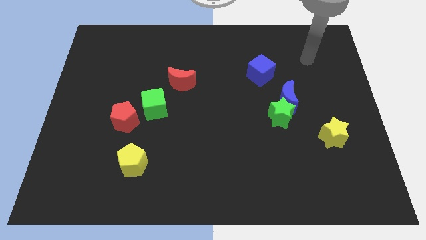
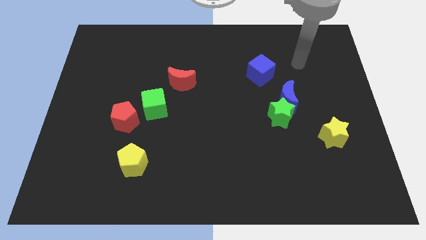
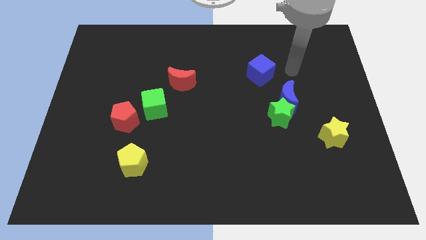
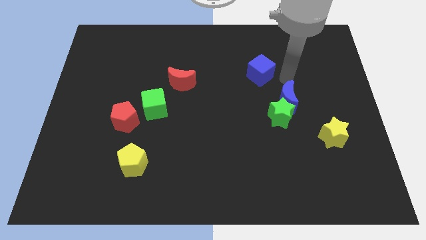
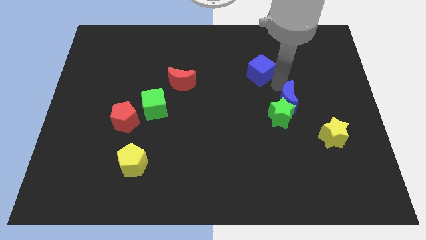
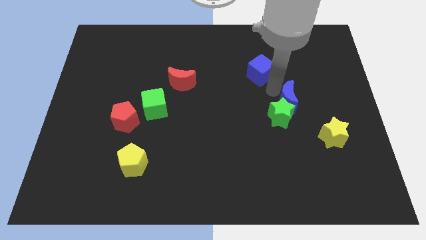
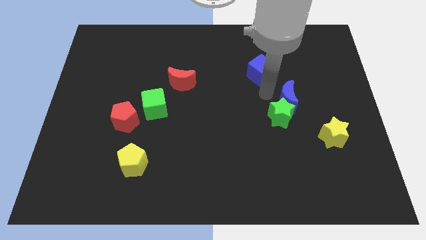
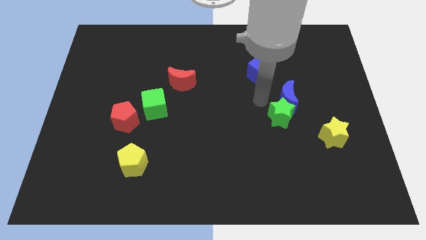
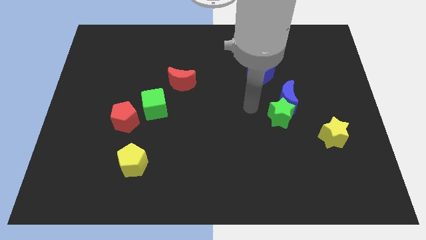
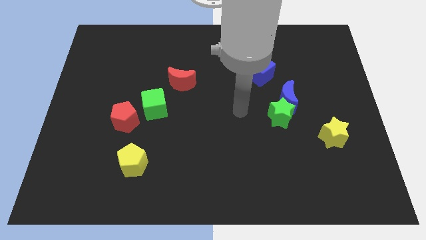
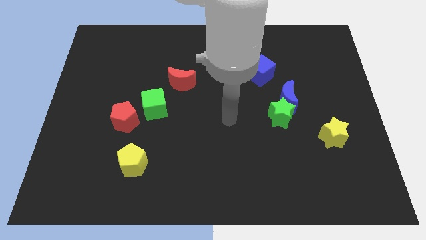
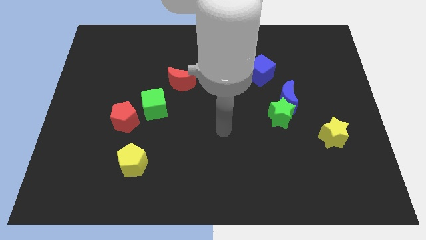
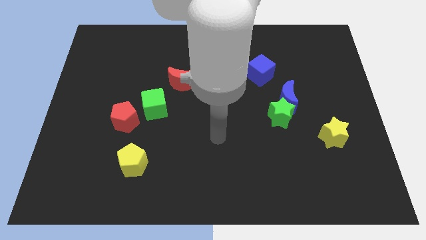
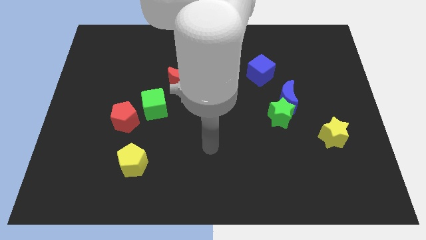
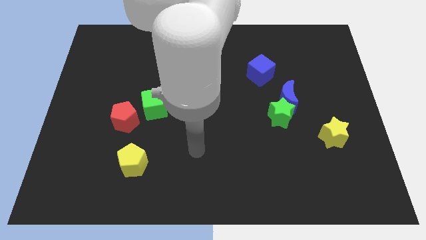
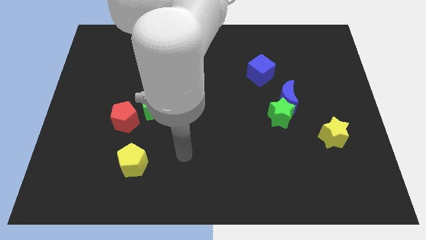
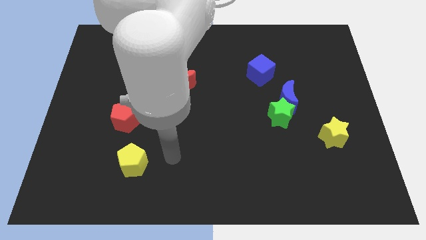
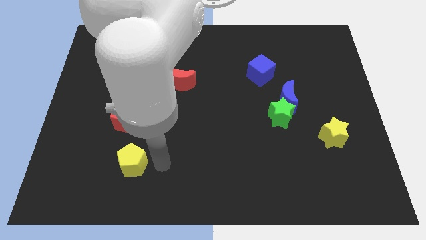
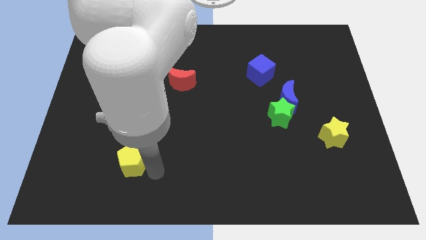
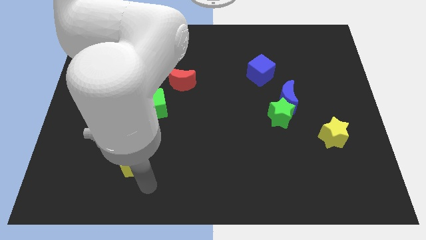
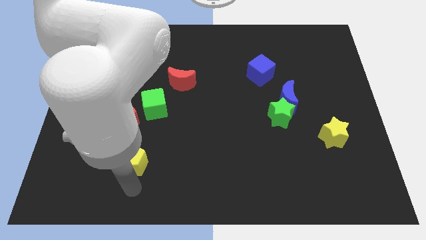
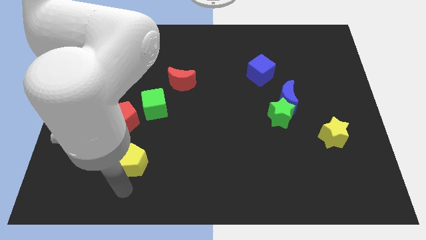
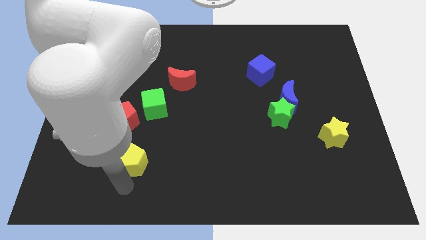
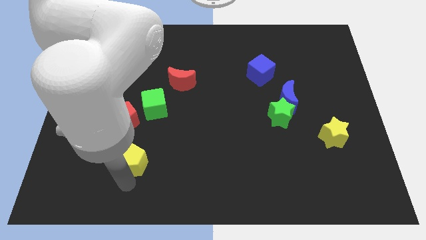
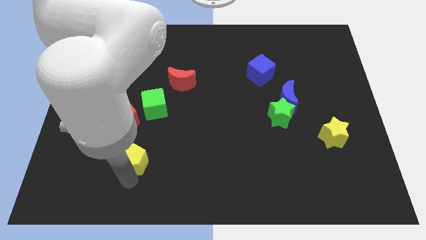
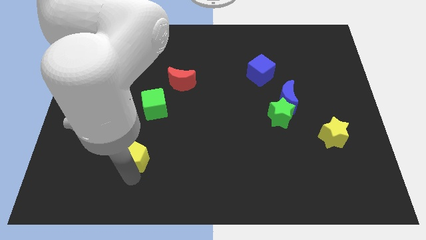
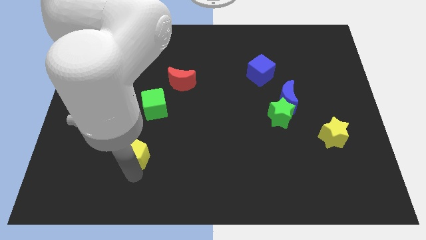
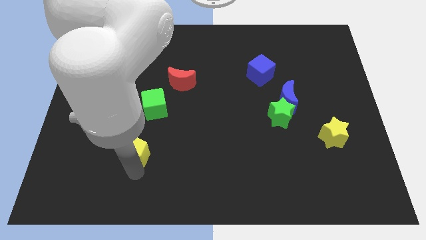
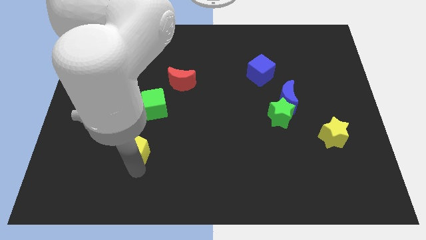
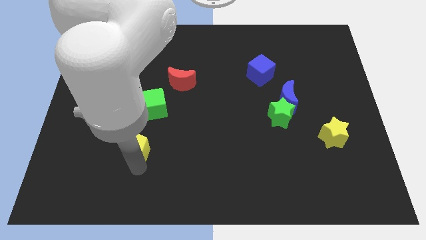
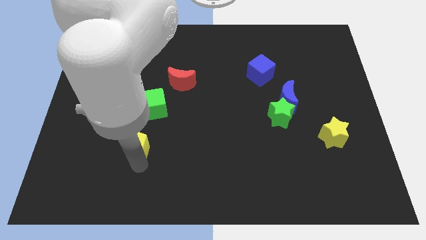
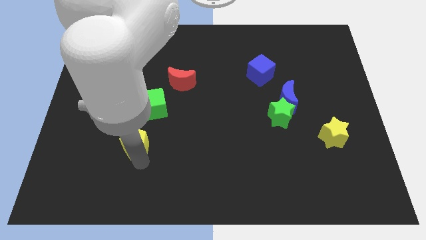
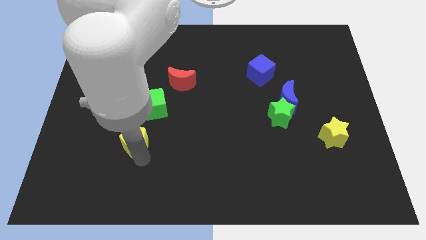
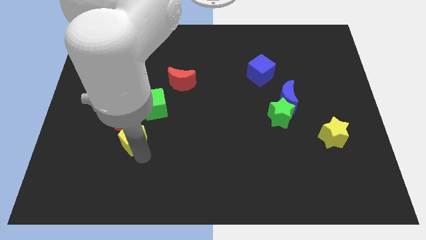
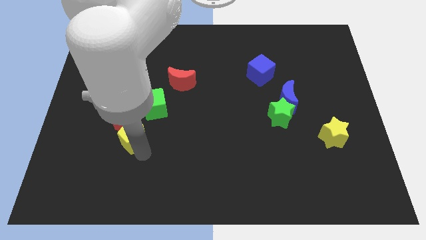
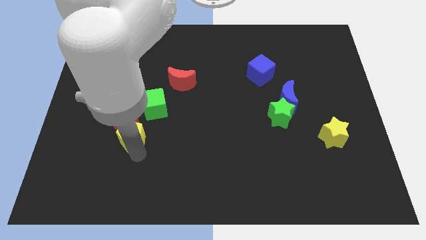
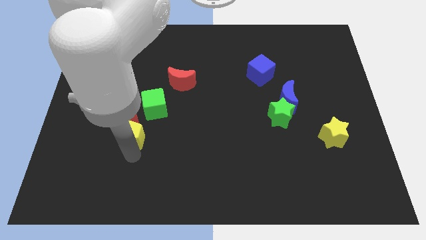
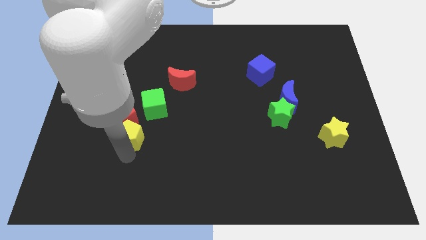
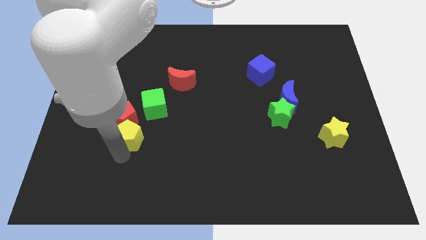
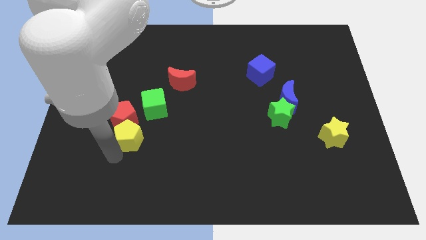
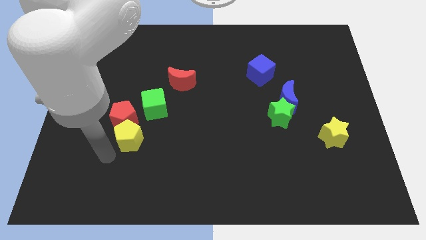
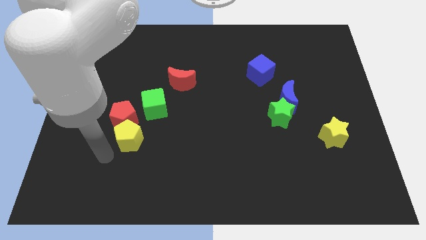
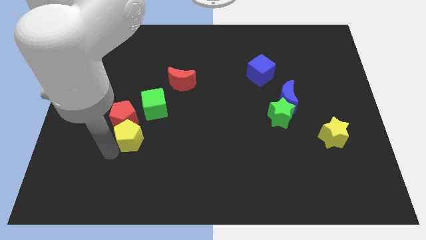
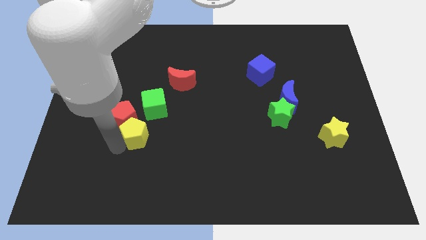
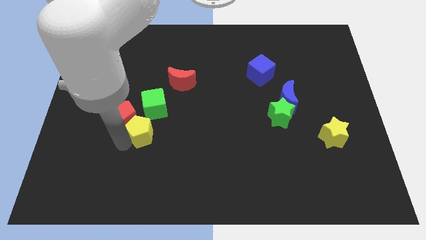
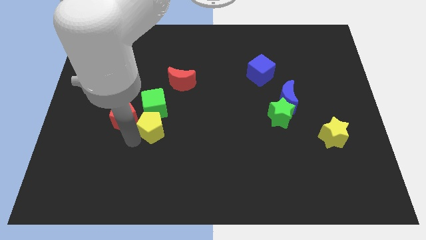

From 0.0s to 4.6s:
push the yellow pentagon close to the green cube

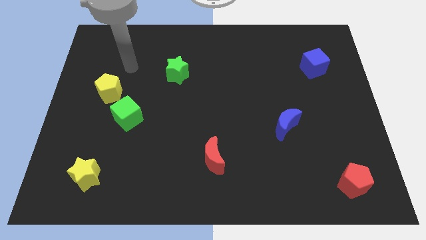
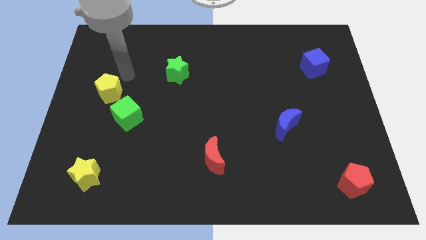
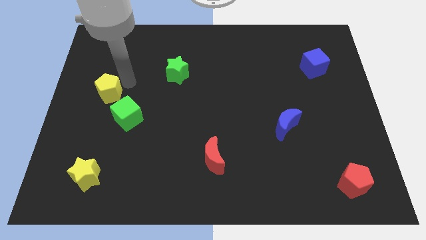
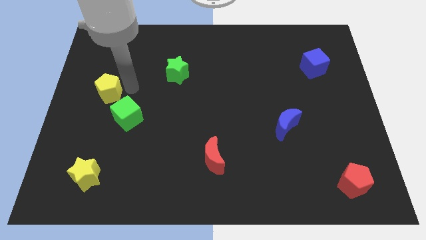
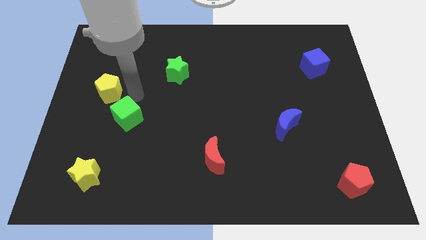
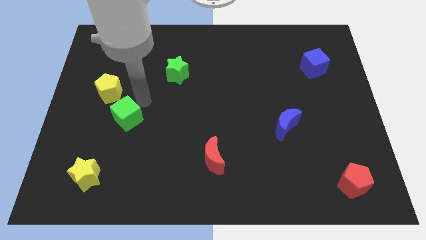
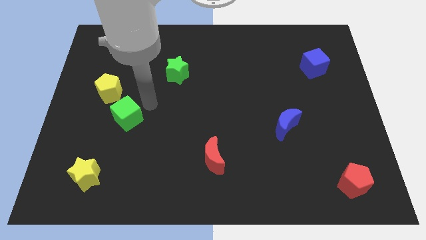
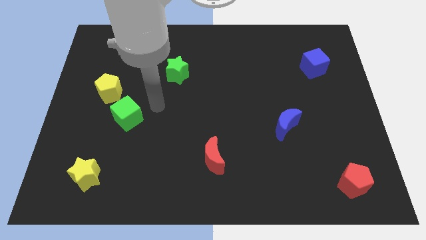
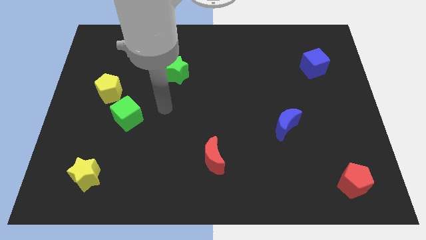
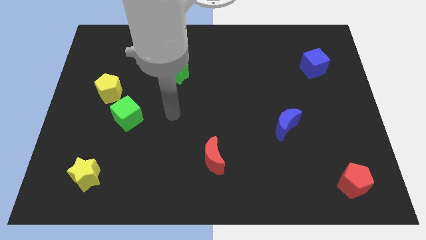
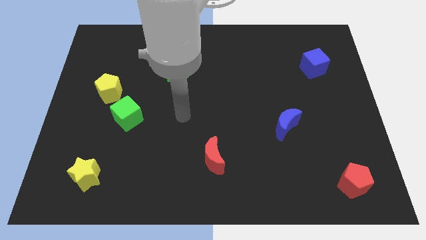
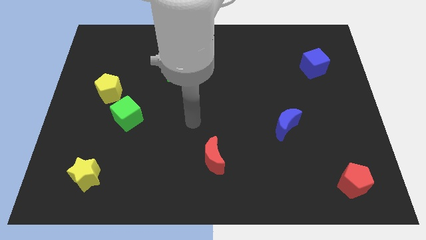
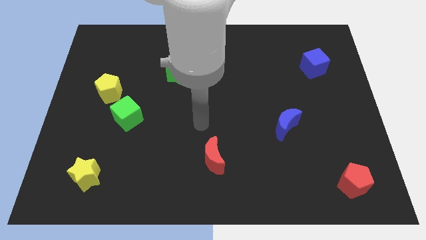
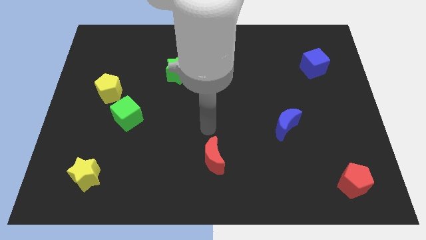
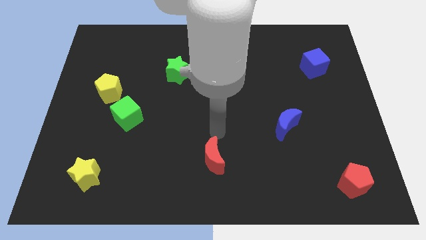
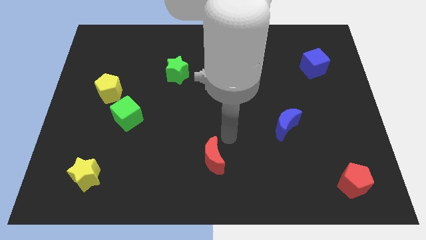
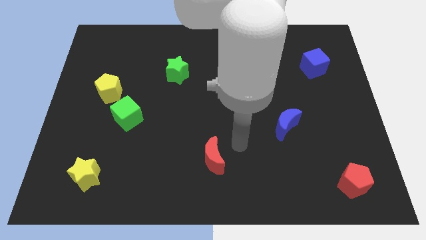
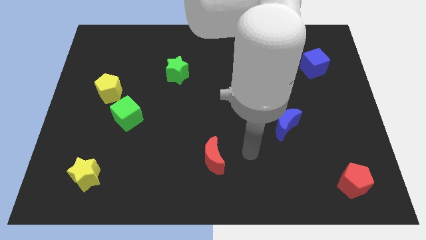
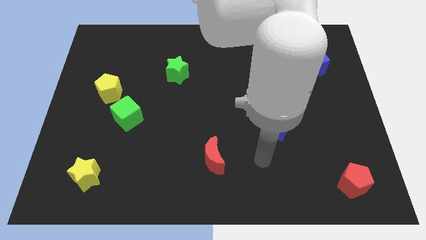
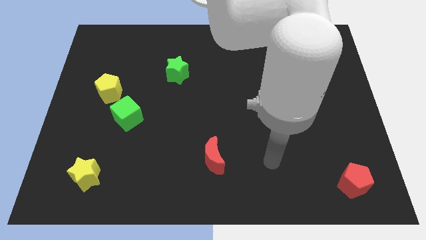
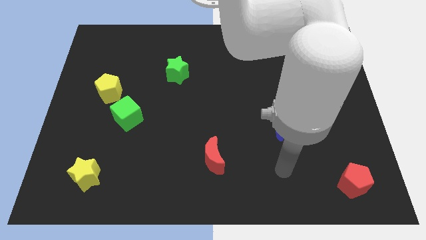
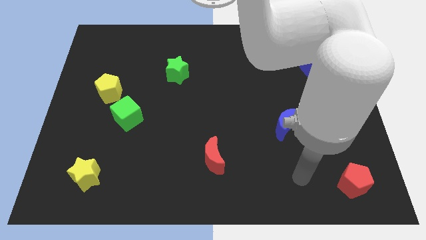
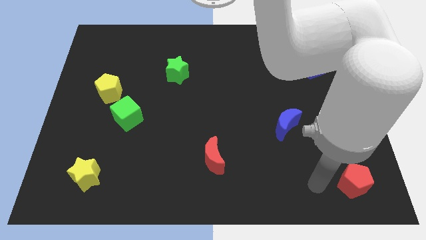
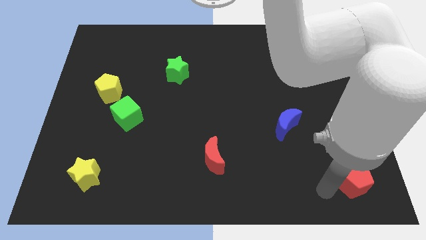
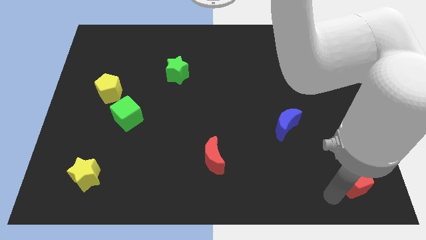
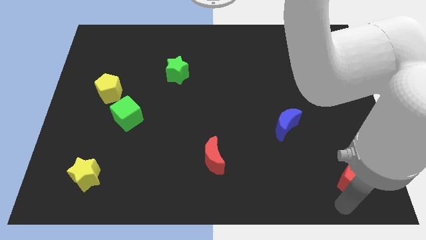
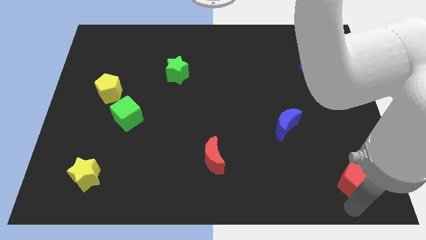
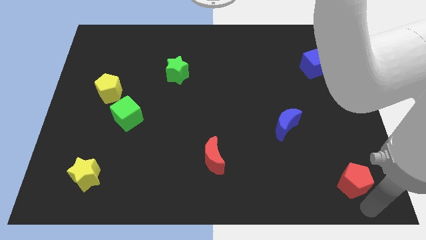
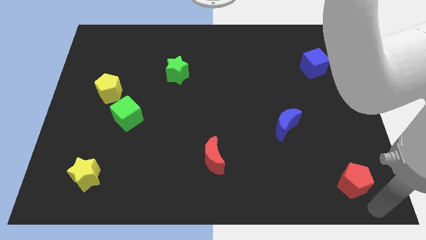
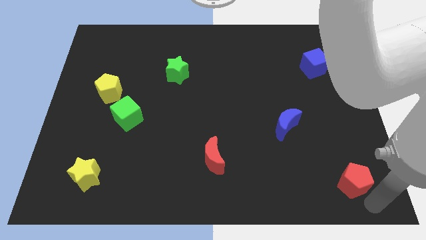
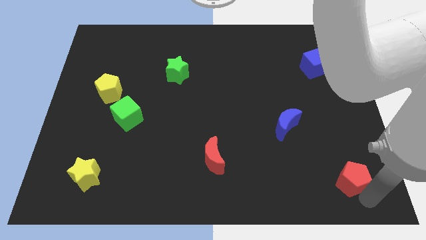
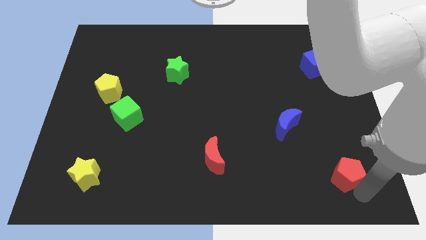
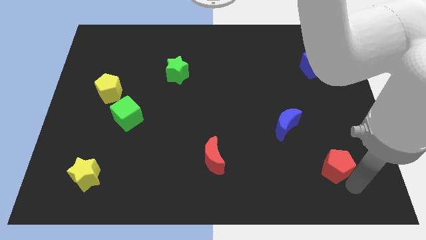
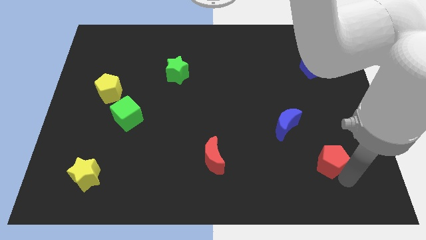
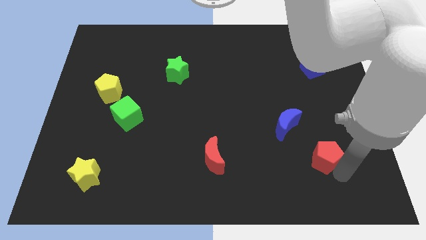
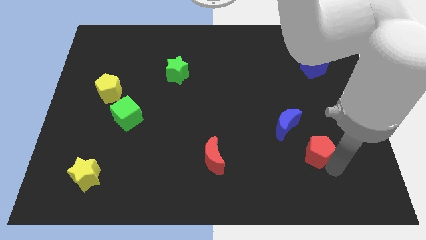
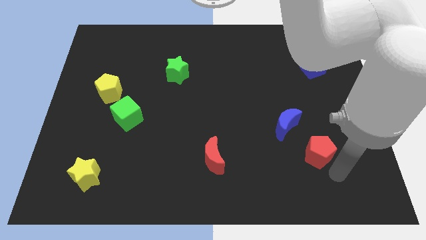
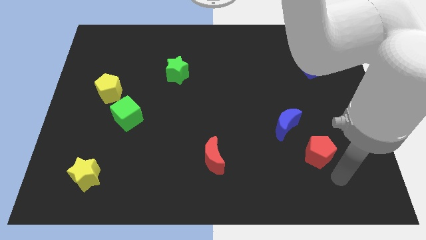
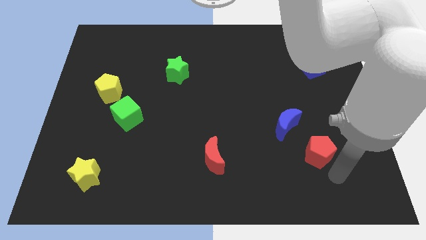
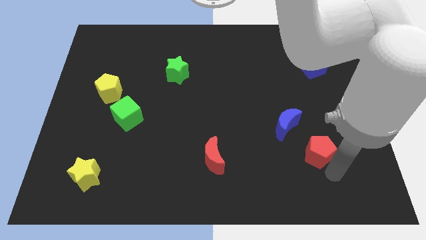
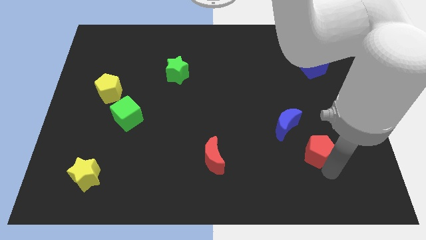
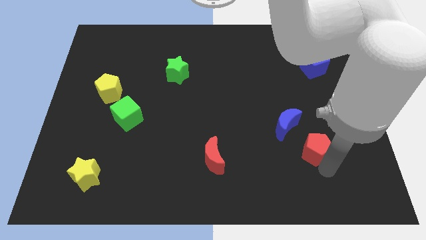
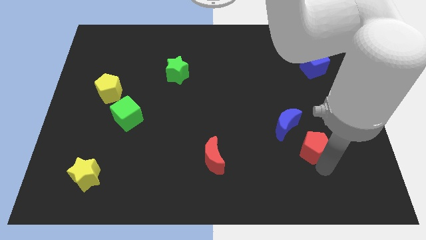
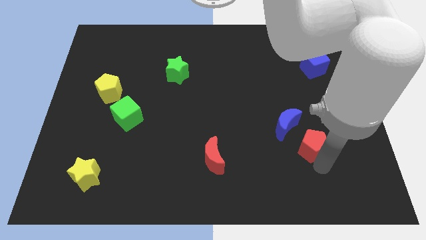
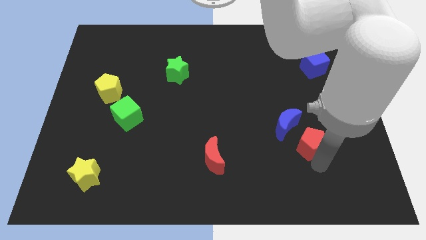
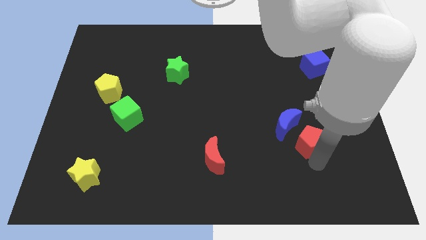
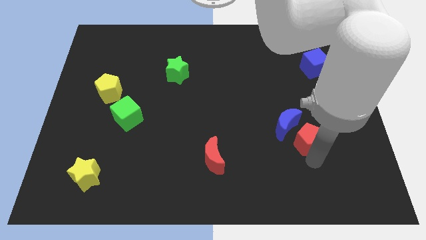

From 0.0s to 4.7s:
put the red pentagon close to the blue moon
